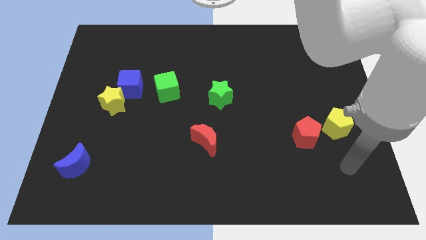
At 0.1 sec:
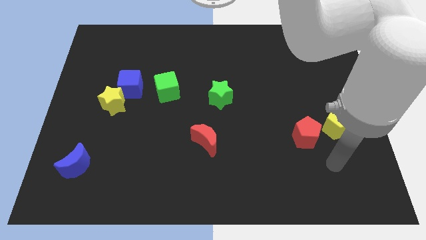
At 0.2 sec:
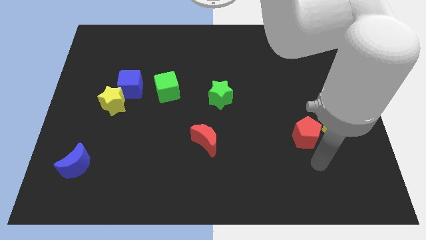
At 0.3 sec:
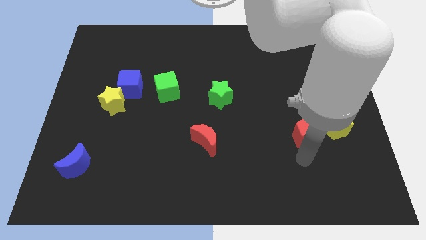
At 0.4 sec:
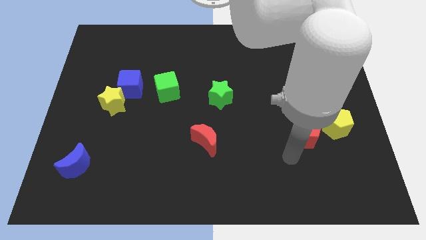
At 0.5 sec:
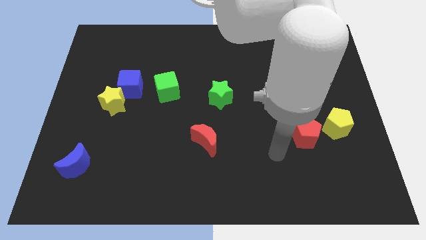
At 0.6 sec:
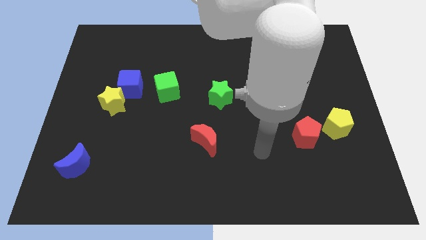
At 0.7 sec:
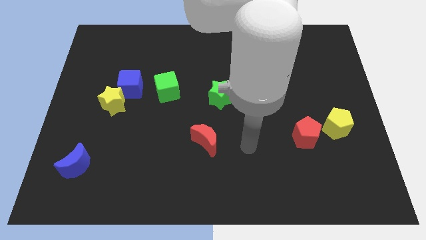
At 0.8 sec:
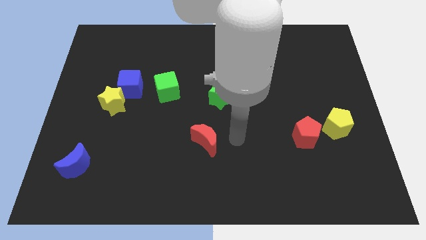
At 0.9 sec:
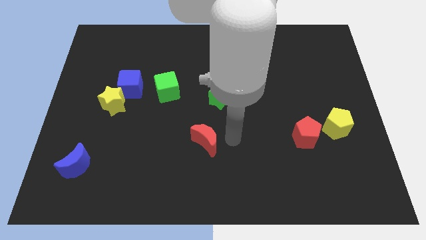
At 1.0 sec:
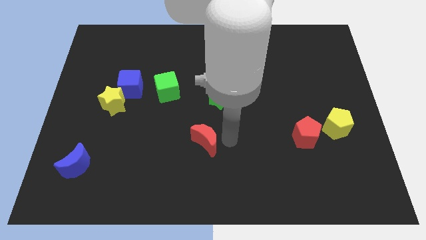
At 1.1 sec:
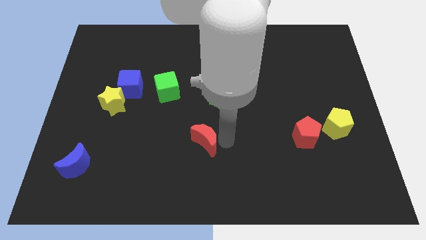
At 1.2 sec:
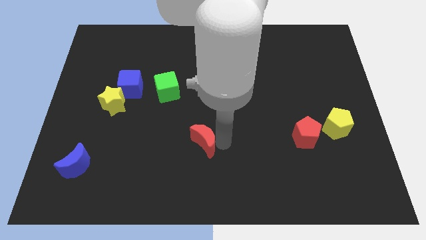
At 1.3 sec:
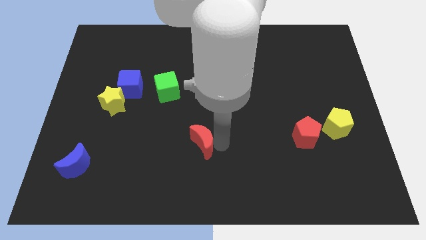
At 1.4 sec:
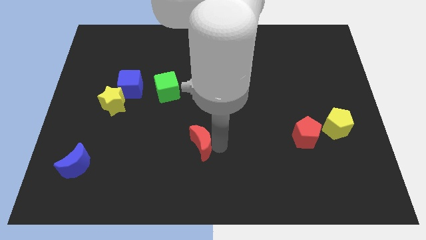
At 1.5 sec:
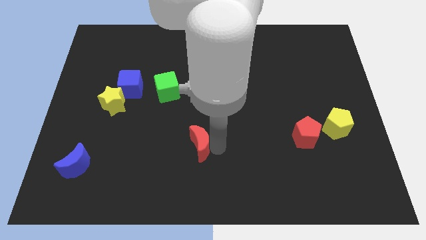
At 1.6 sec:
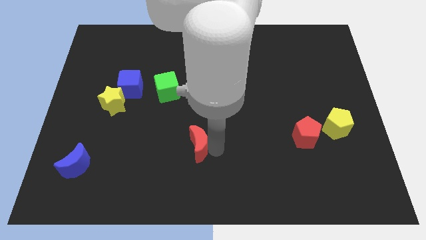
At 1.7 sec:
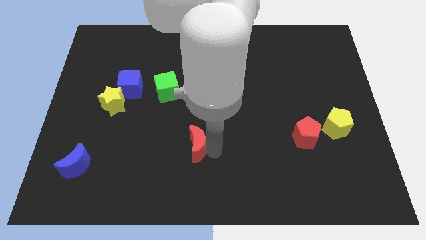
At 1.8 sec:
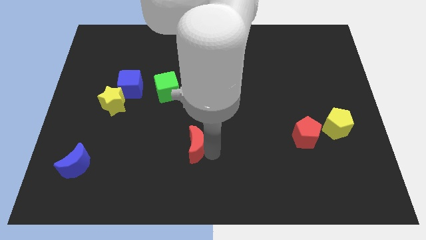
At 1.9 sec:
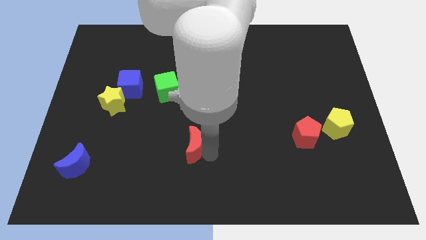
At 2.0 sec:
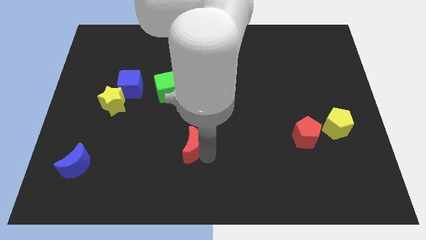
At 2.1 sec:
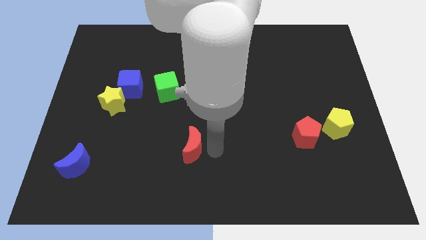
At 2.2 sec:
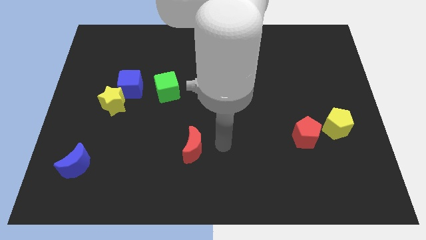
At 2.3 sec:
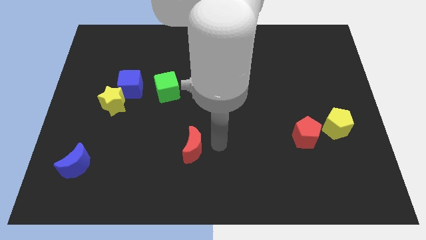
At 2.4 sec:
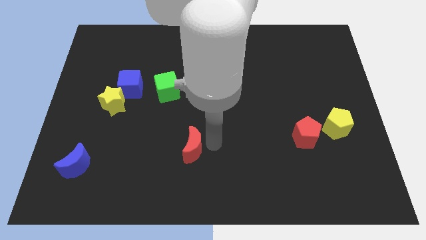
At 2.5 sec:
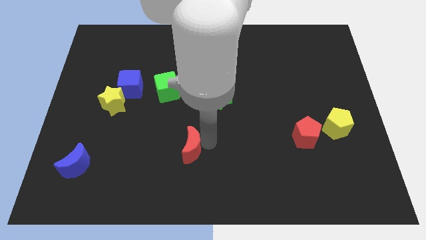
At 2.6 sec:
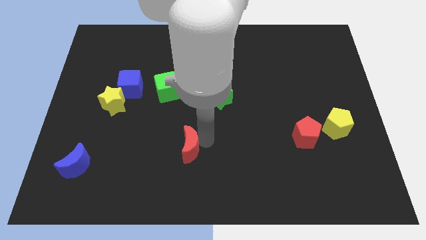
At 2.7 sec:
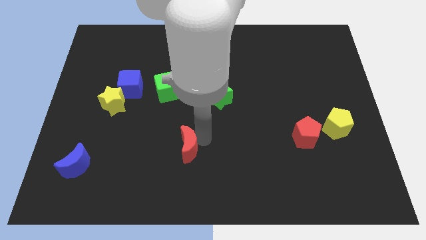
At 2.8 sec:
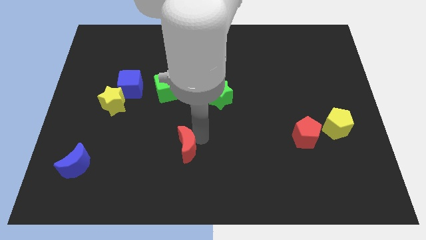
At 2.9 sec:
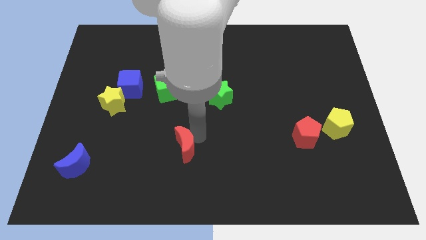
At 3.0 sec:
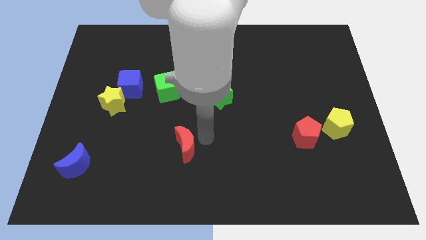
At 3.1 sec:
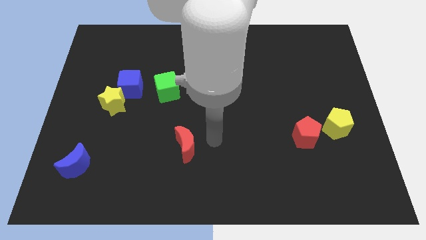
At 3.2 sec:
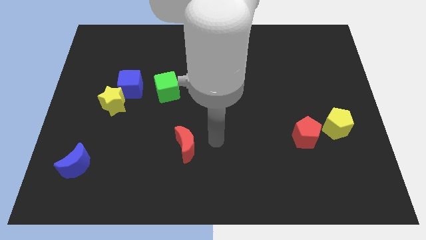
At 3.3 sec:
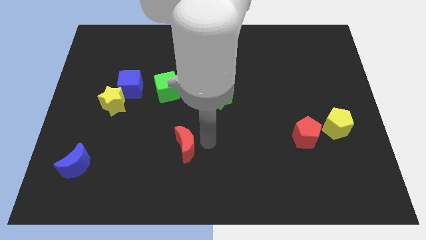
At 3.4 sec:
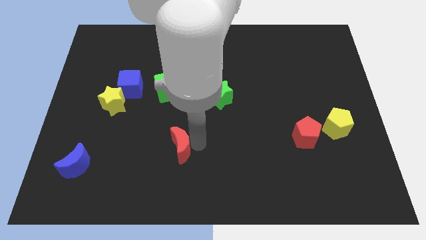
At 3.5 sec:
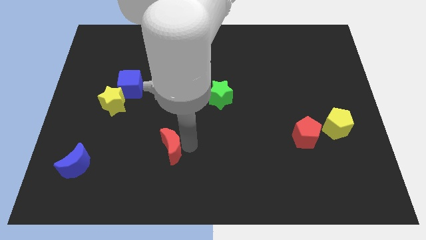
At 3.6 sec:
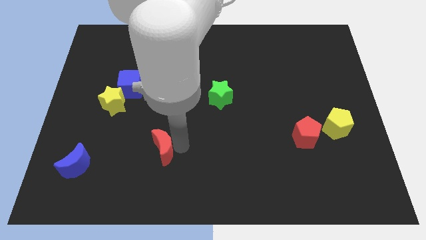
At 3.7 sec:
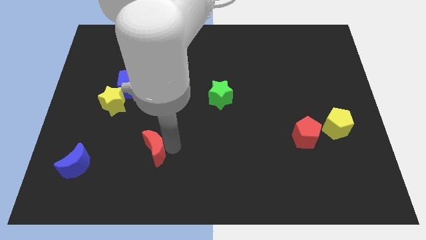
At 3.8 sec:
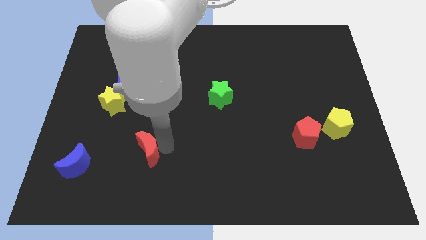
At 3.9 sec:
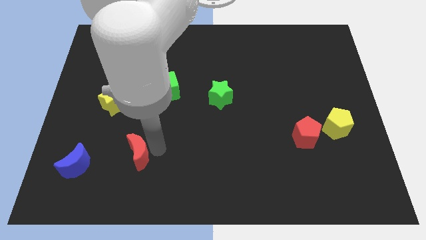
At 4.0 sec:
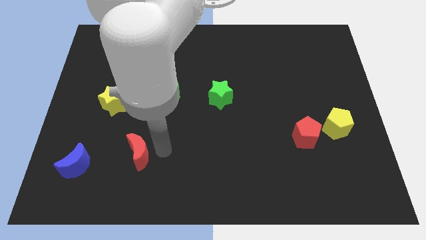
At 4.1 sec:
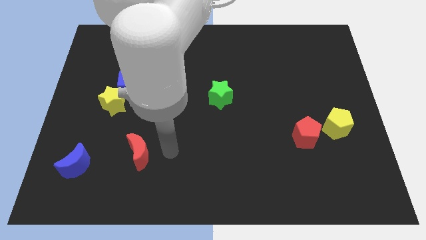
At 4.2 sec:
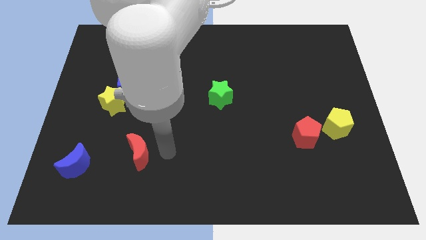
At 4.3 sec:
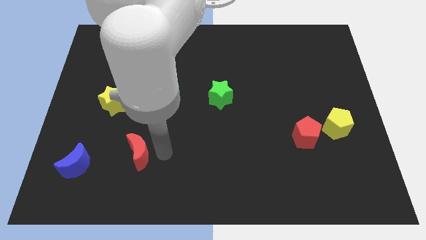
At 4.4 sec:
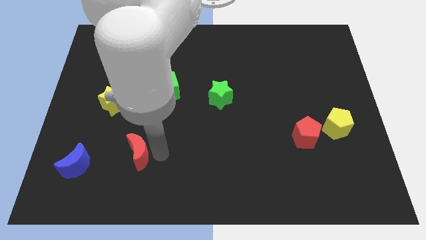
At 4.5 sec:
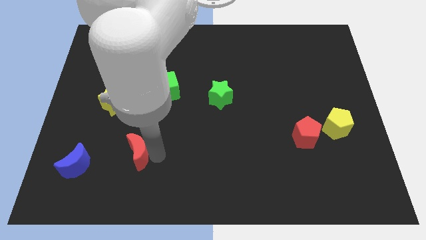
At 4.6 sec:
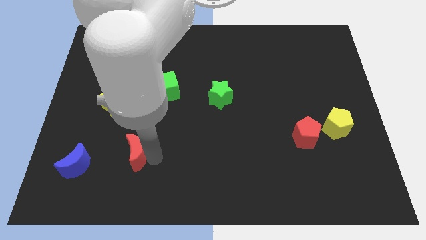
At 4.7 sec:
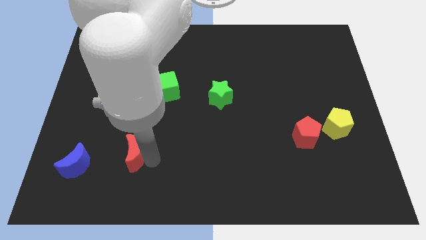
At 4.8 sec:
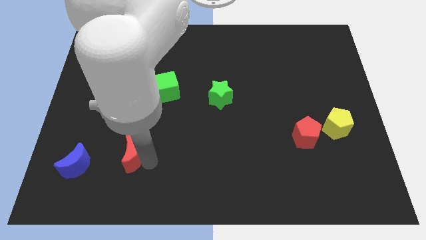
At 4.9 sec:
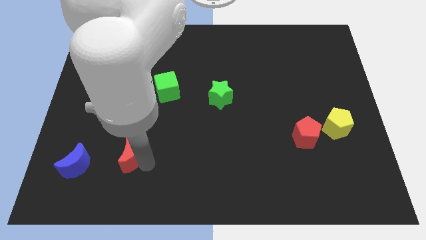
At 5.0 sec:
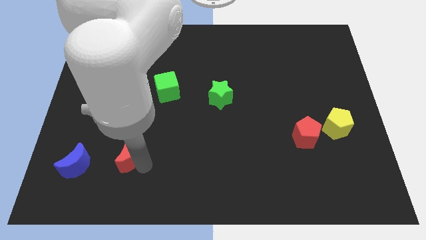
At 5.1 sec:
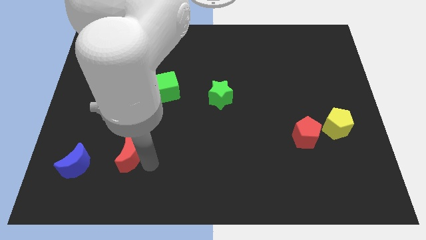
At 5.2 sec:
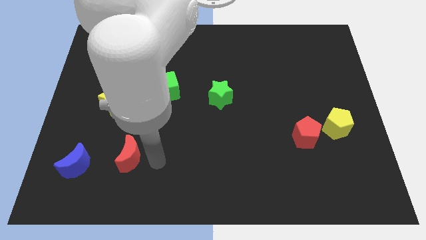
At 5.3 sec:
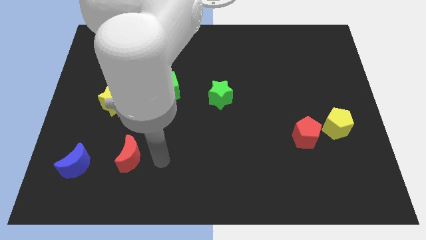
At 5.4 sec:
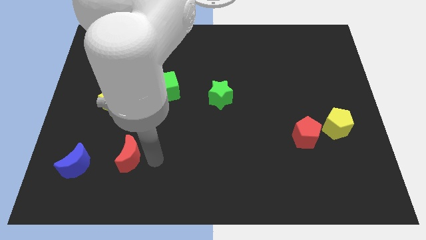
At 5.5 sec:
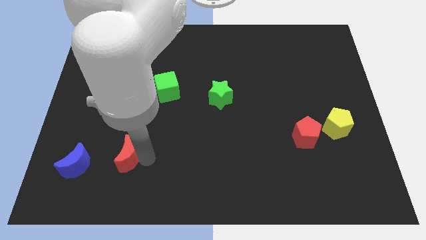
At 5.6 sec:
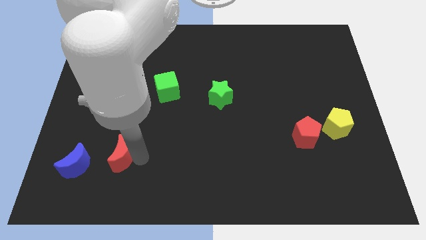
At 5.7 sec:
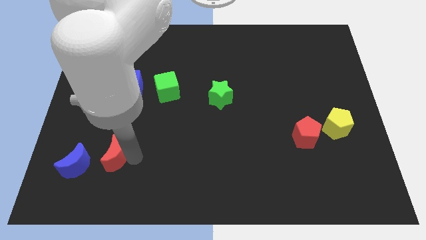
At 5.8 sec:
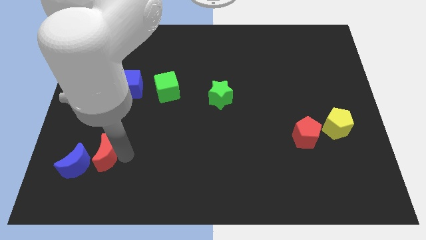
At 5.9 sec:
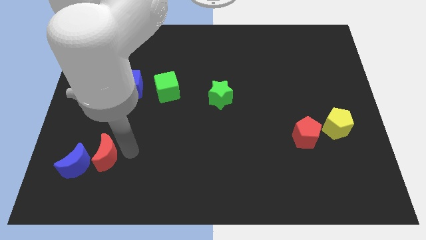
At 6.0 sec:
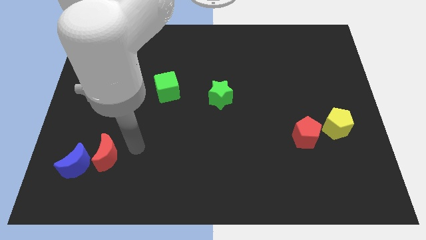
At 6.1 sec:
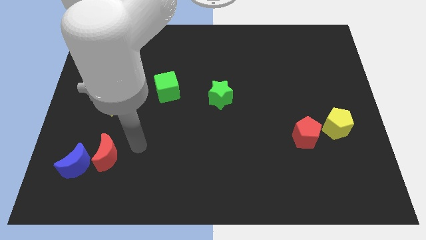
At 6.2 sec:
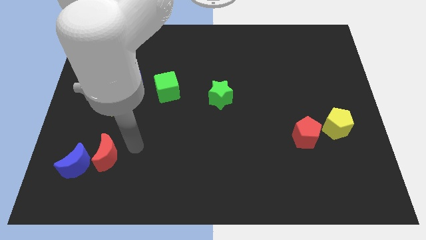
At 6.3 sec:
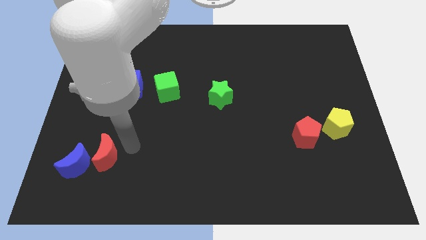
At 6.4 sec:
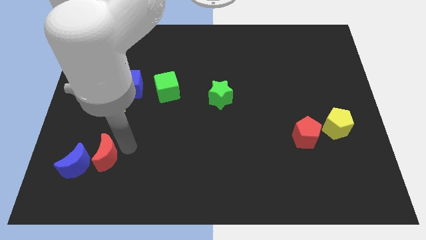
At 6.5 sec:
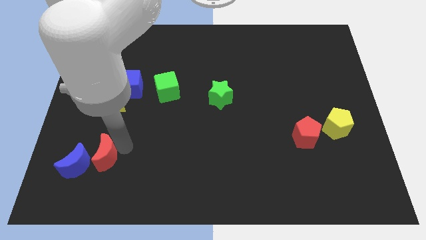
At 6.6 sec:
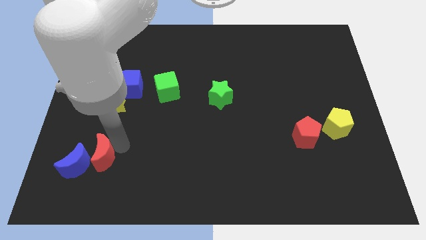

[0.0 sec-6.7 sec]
slide the red moon towards the blue moon

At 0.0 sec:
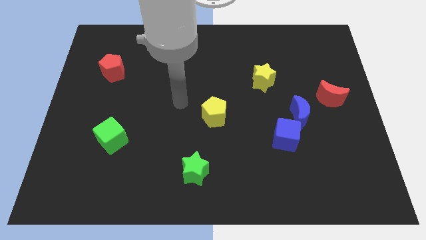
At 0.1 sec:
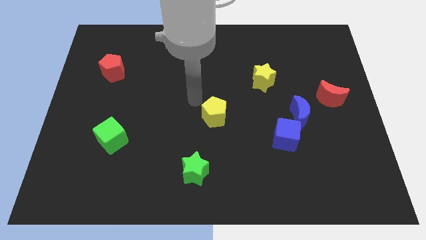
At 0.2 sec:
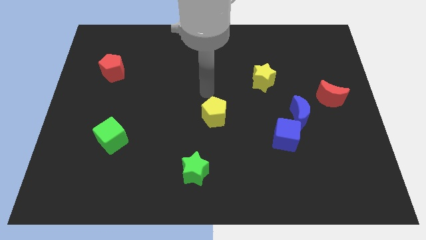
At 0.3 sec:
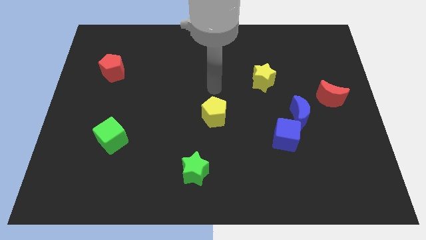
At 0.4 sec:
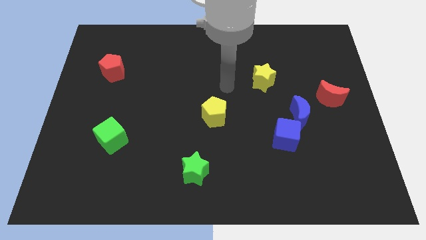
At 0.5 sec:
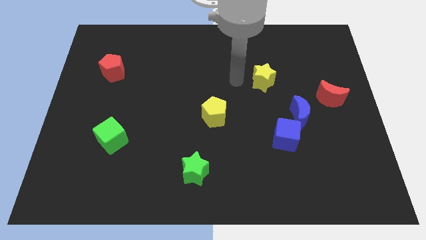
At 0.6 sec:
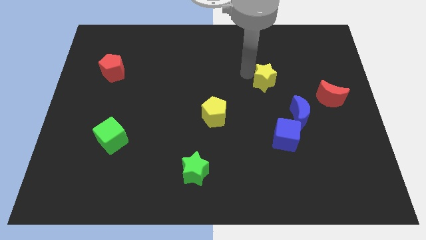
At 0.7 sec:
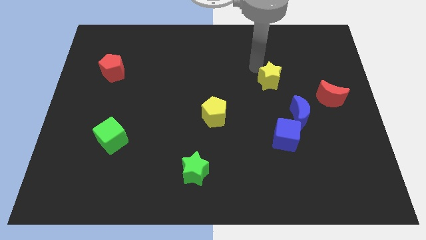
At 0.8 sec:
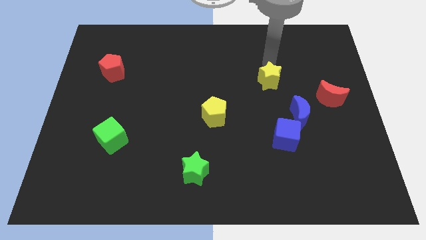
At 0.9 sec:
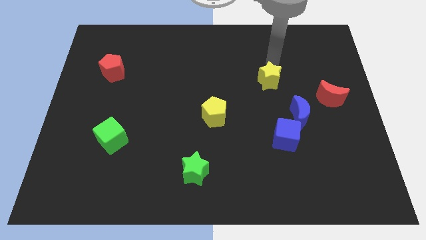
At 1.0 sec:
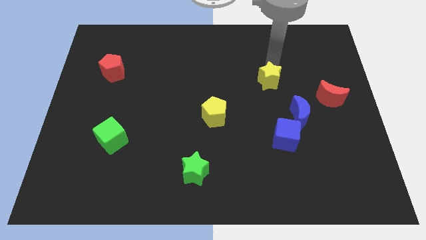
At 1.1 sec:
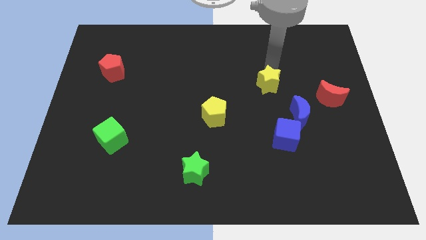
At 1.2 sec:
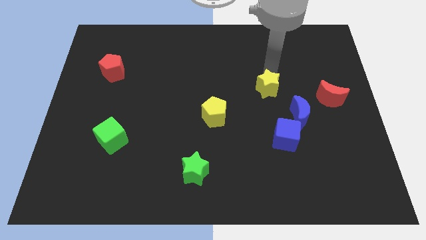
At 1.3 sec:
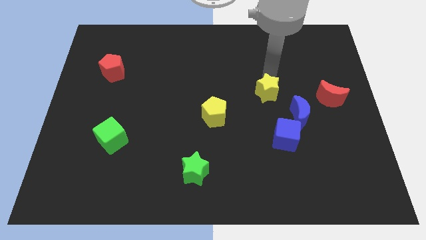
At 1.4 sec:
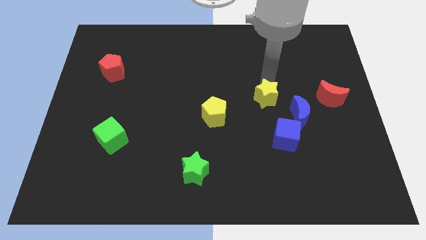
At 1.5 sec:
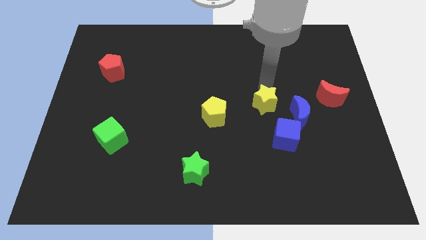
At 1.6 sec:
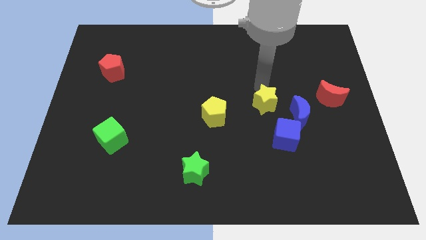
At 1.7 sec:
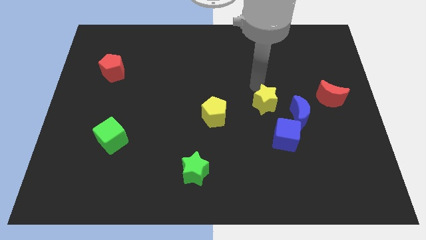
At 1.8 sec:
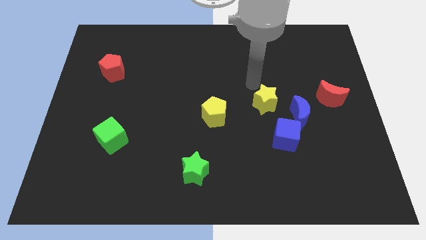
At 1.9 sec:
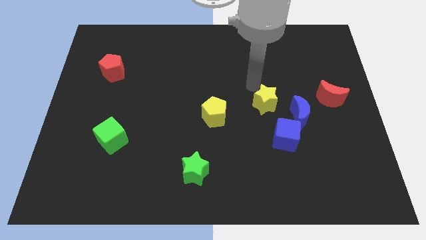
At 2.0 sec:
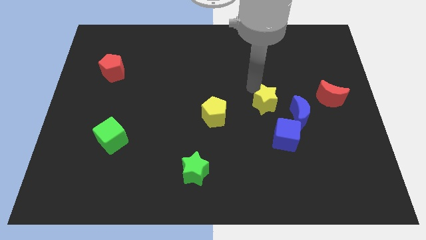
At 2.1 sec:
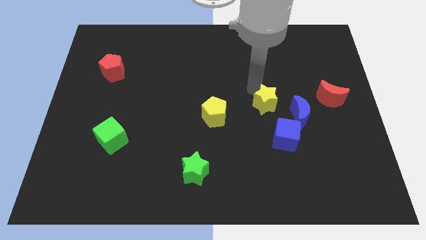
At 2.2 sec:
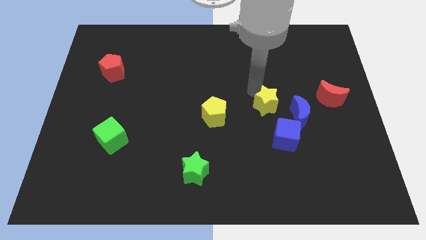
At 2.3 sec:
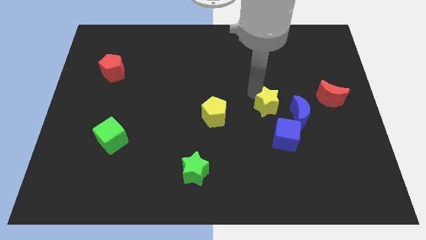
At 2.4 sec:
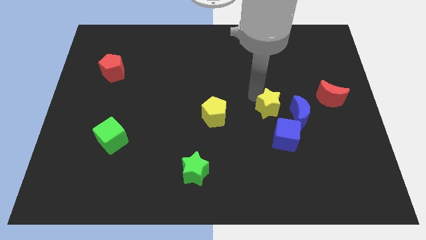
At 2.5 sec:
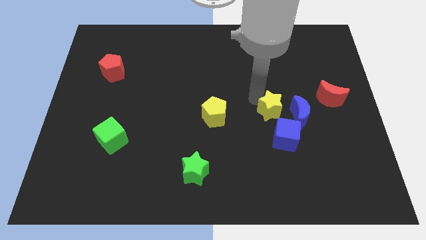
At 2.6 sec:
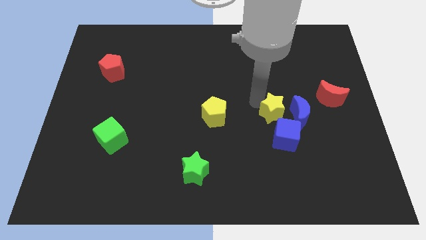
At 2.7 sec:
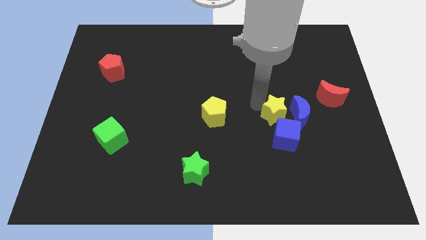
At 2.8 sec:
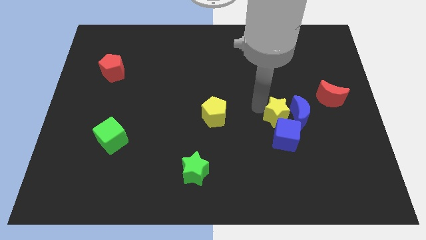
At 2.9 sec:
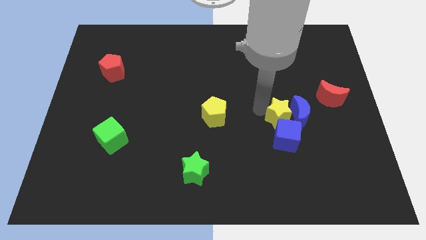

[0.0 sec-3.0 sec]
put the yellow star towards the blue cube
